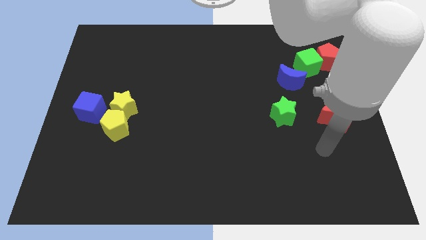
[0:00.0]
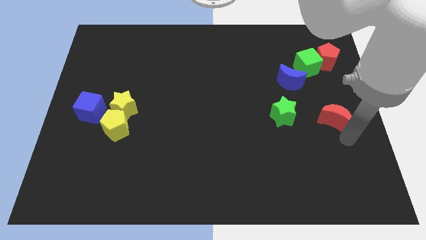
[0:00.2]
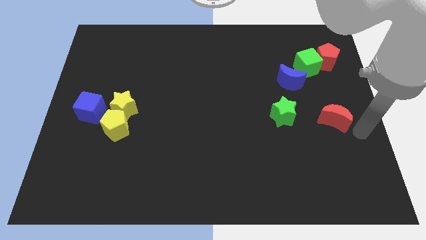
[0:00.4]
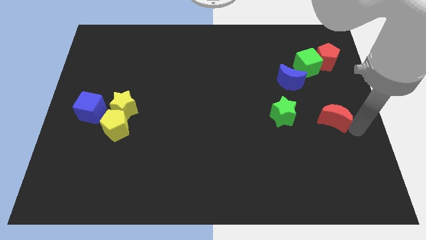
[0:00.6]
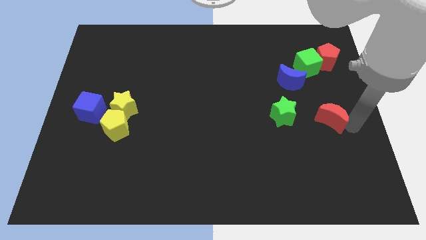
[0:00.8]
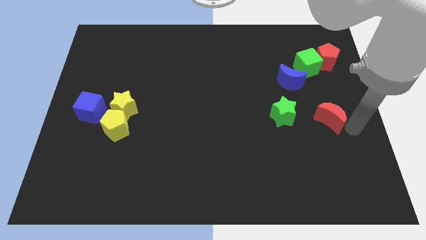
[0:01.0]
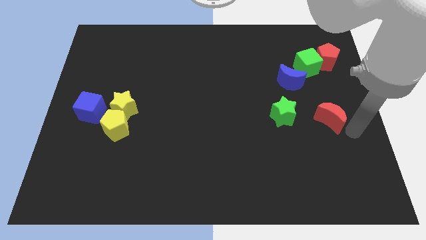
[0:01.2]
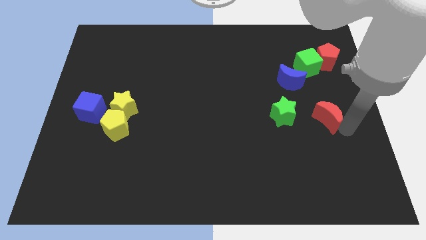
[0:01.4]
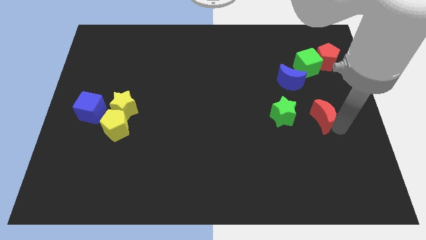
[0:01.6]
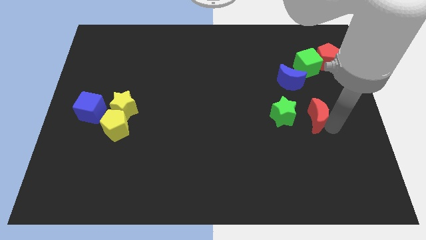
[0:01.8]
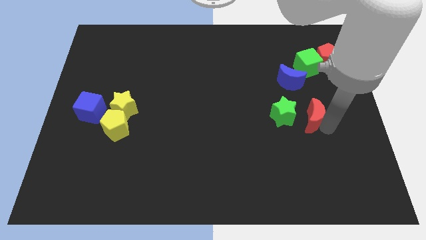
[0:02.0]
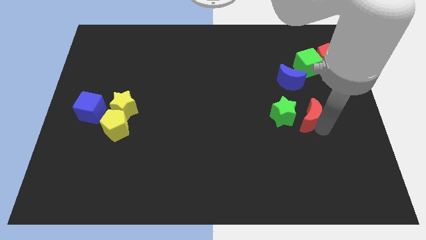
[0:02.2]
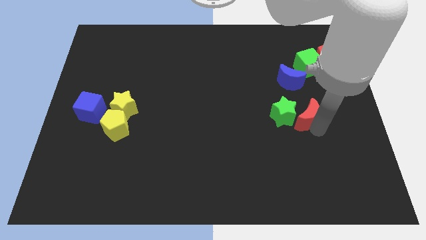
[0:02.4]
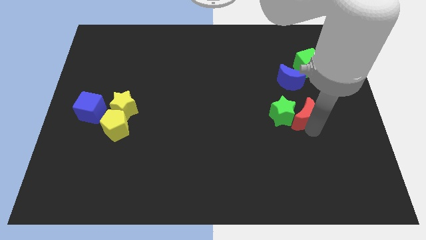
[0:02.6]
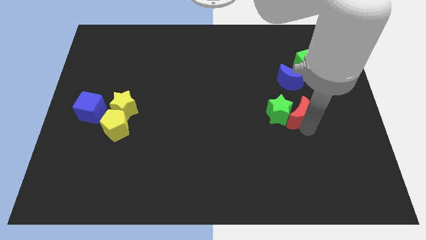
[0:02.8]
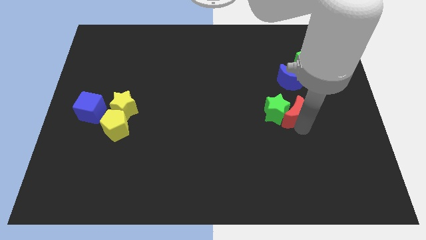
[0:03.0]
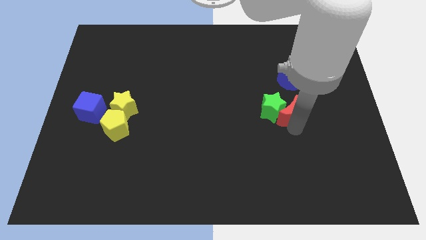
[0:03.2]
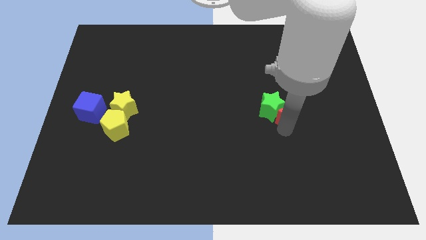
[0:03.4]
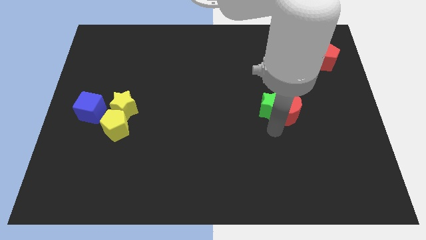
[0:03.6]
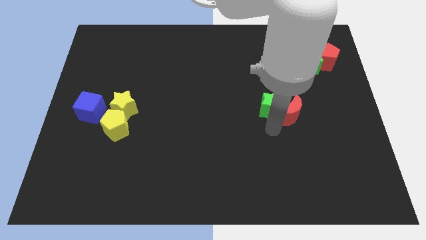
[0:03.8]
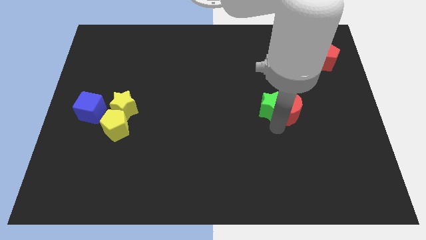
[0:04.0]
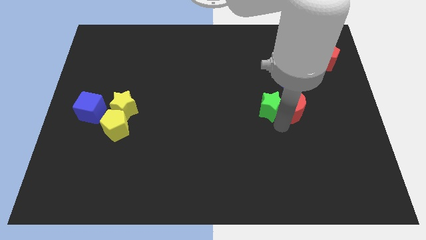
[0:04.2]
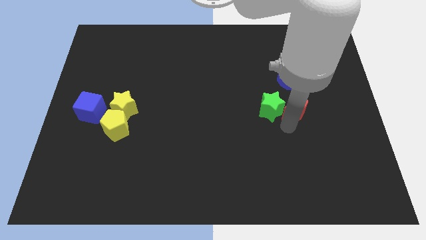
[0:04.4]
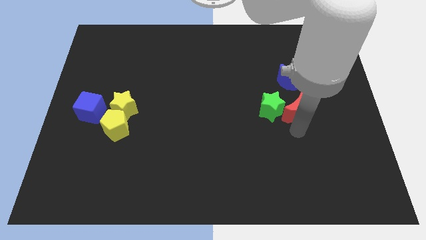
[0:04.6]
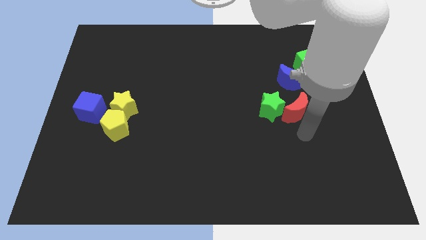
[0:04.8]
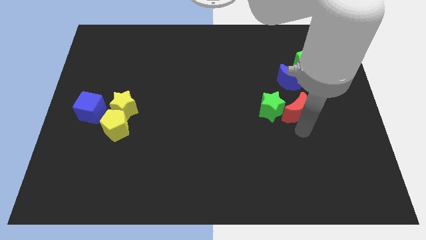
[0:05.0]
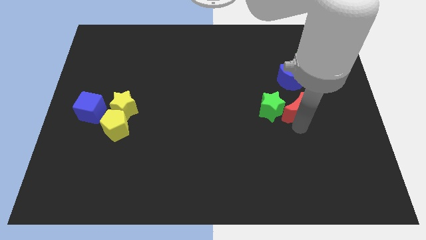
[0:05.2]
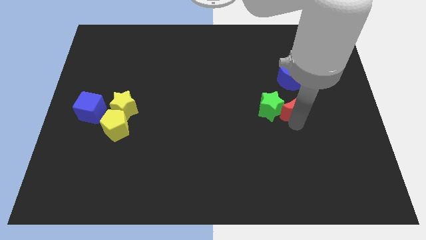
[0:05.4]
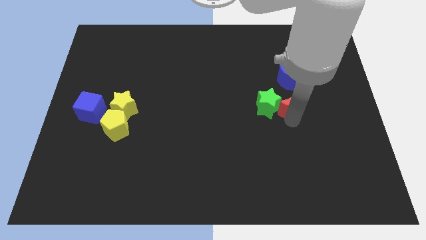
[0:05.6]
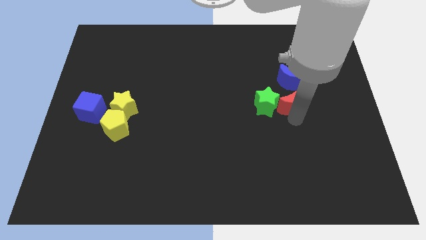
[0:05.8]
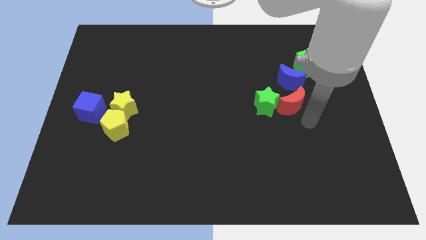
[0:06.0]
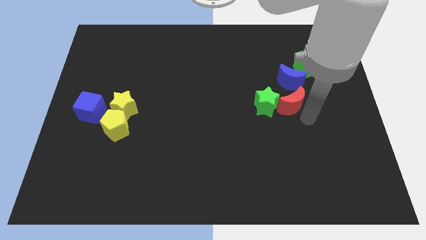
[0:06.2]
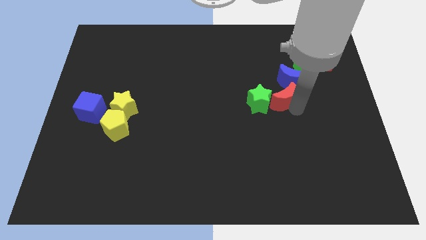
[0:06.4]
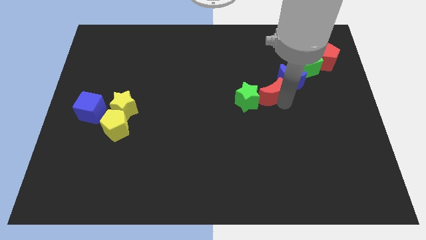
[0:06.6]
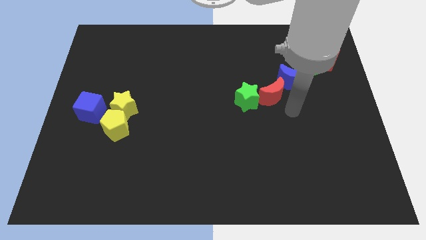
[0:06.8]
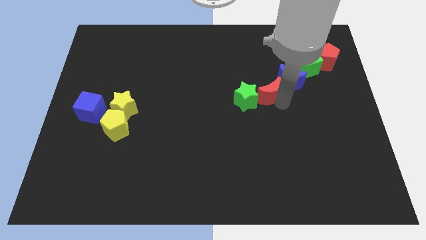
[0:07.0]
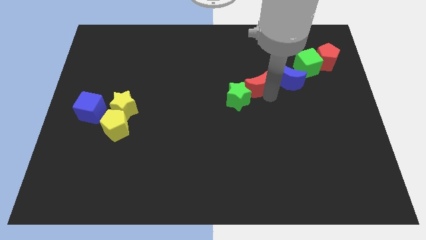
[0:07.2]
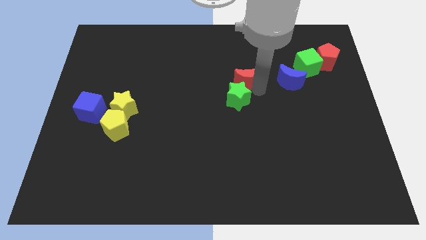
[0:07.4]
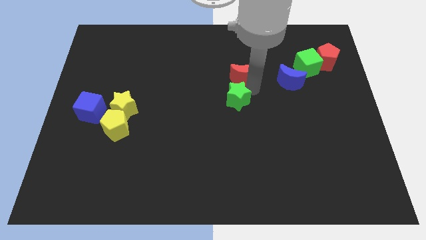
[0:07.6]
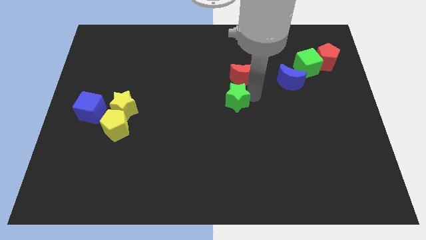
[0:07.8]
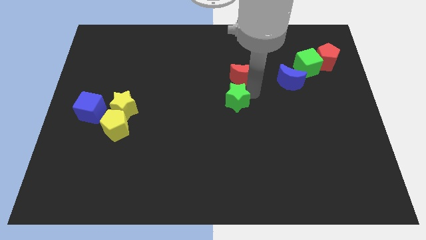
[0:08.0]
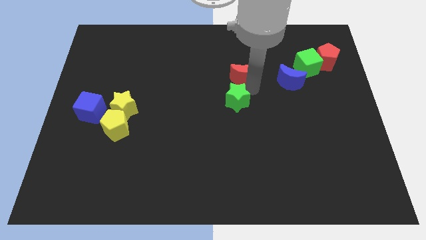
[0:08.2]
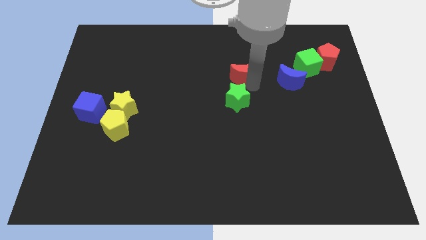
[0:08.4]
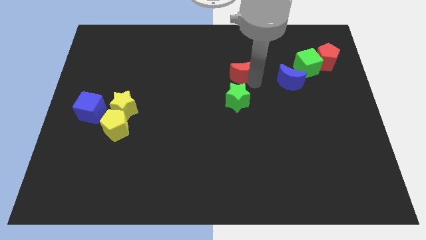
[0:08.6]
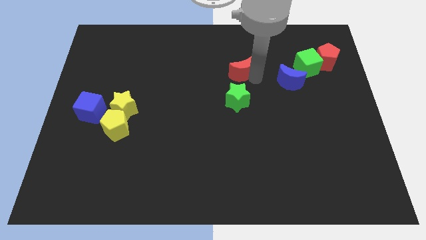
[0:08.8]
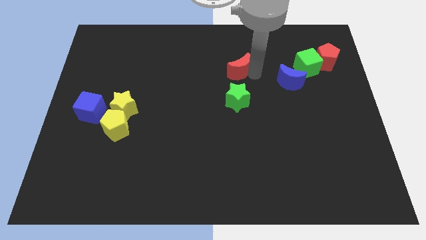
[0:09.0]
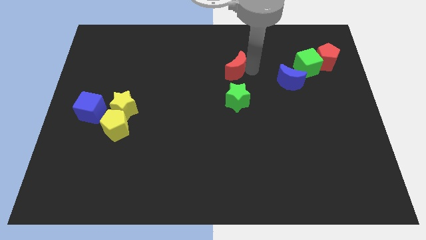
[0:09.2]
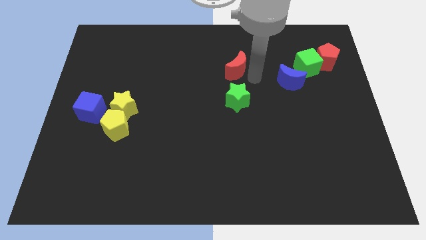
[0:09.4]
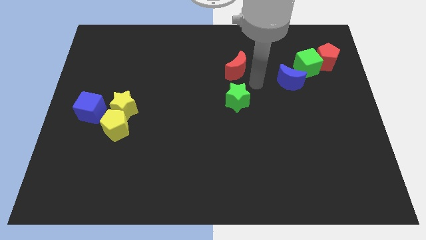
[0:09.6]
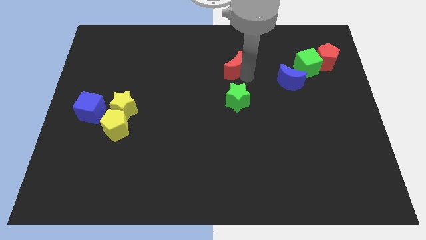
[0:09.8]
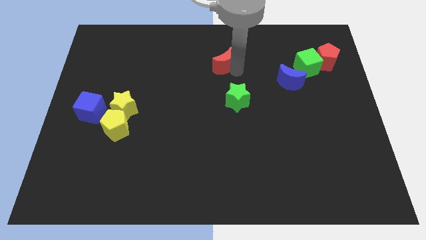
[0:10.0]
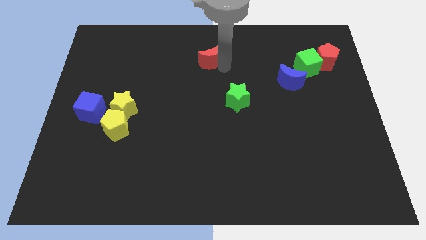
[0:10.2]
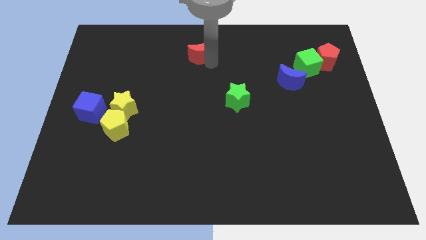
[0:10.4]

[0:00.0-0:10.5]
put the red moon to the top
